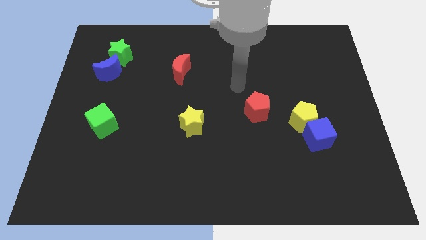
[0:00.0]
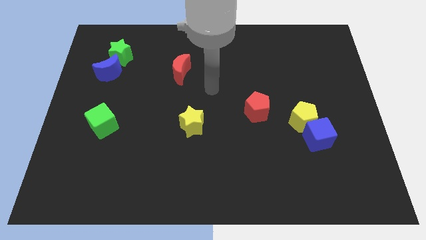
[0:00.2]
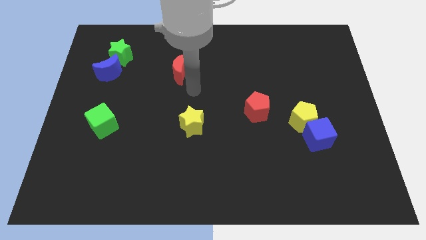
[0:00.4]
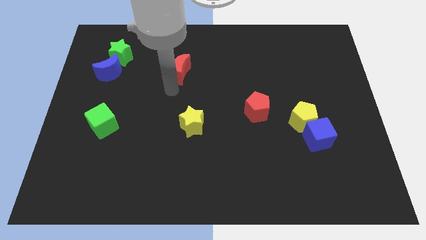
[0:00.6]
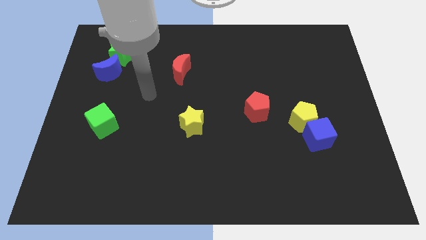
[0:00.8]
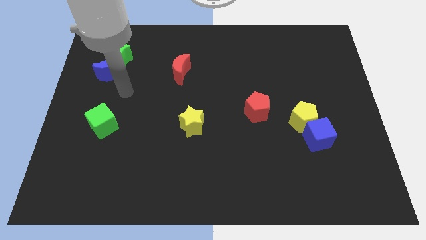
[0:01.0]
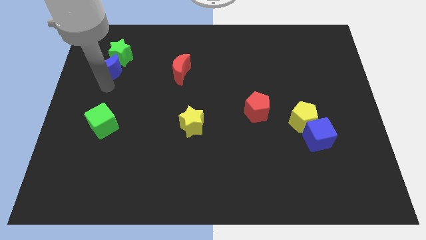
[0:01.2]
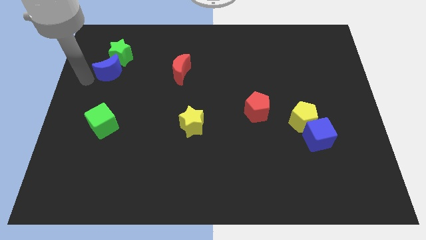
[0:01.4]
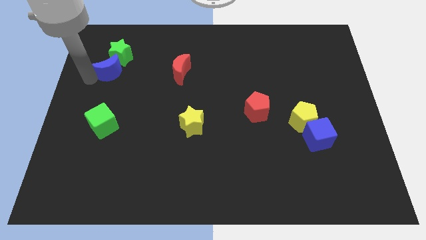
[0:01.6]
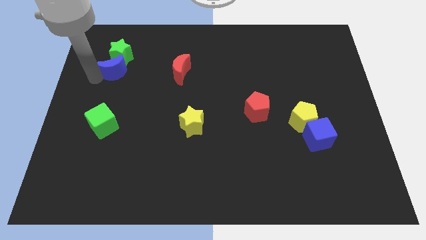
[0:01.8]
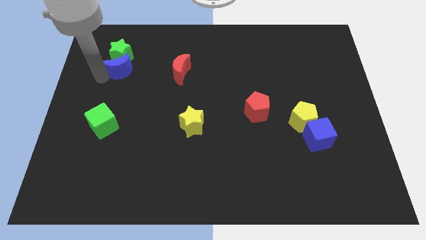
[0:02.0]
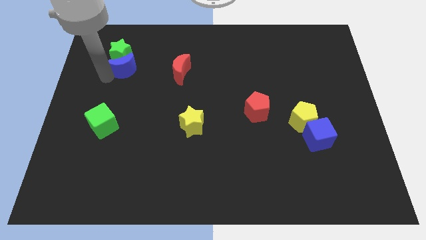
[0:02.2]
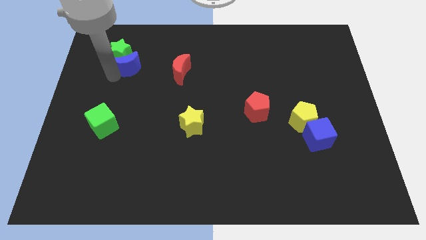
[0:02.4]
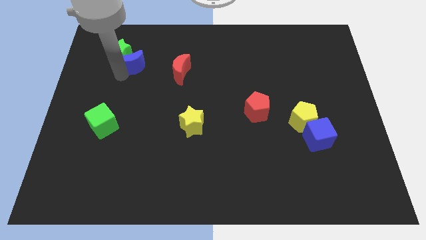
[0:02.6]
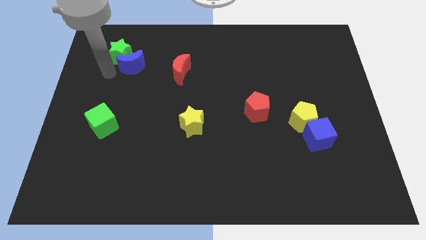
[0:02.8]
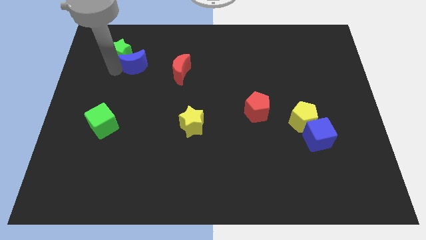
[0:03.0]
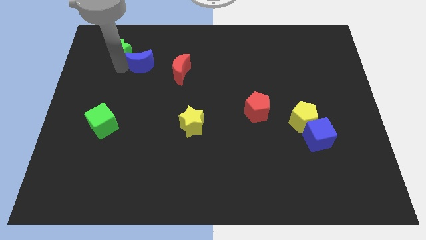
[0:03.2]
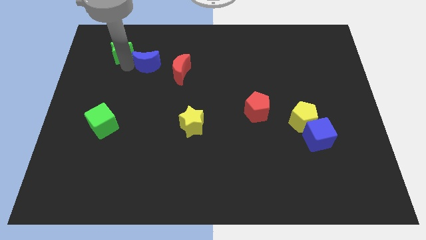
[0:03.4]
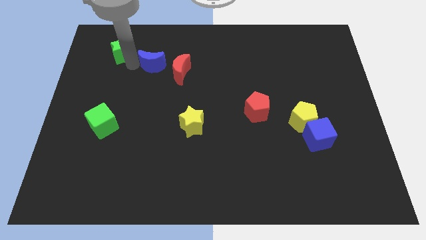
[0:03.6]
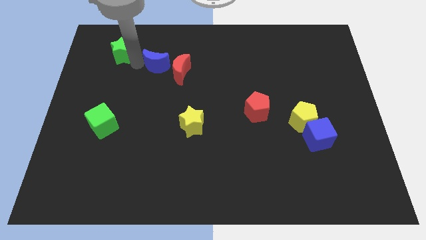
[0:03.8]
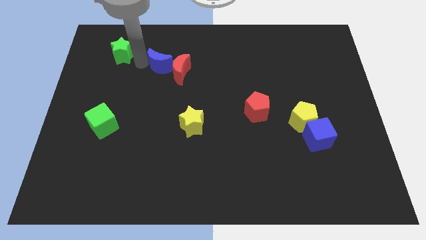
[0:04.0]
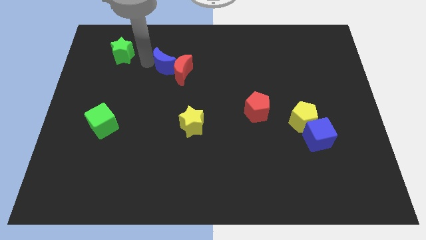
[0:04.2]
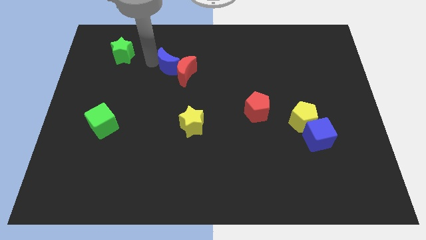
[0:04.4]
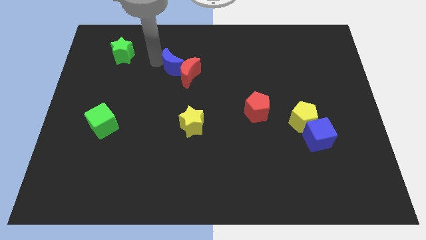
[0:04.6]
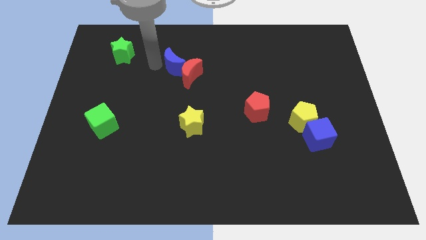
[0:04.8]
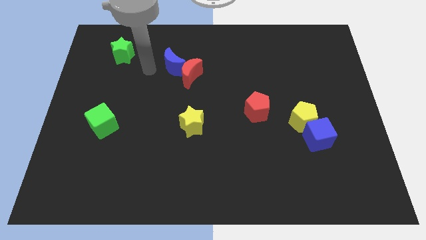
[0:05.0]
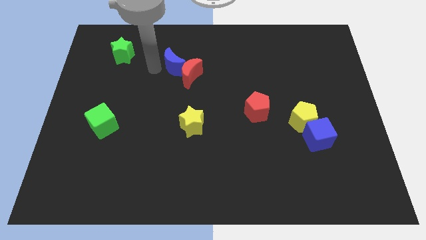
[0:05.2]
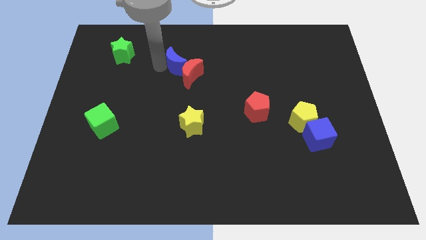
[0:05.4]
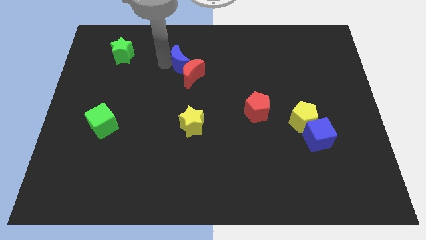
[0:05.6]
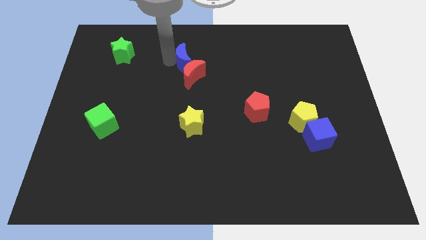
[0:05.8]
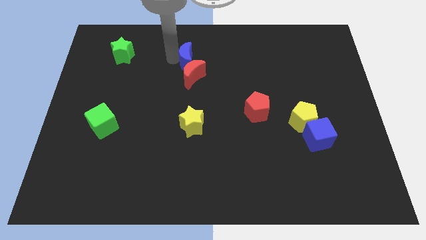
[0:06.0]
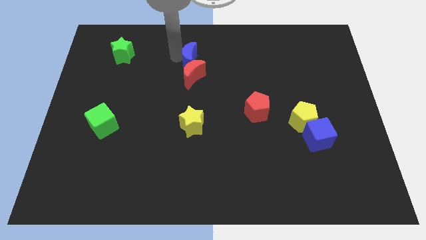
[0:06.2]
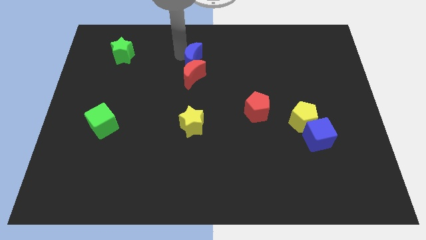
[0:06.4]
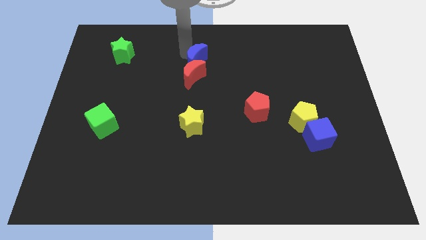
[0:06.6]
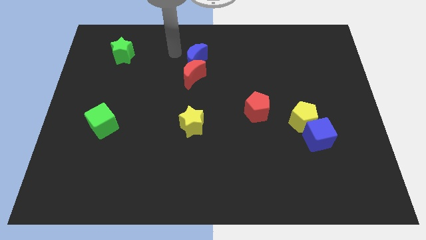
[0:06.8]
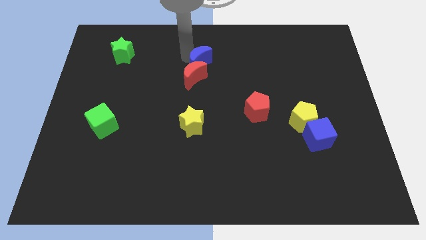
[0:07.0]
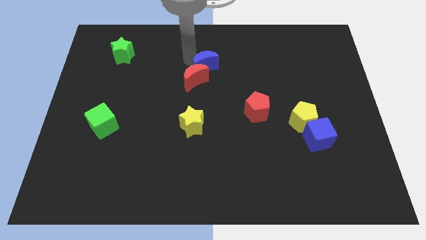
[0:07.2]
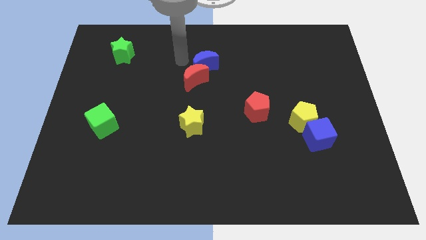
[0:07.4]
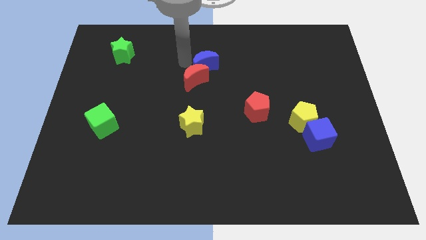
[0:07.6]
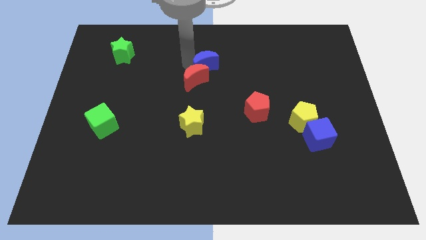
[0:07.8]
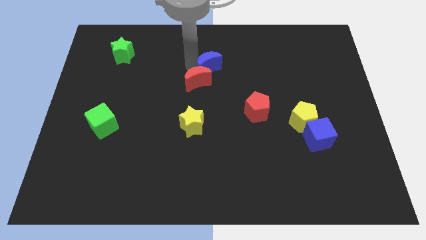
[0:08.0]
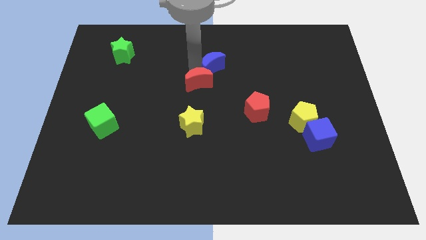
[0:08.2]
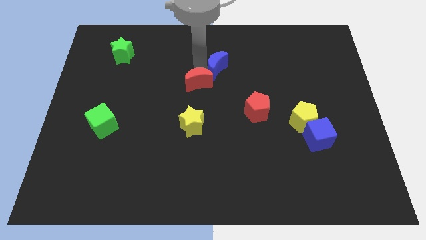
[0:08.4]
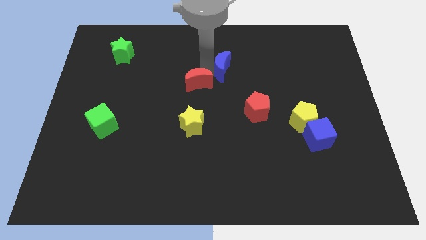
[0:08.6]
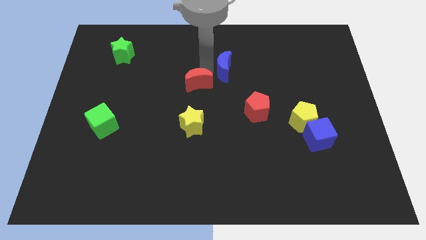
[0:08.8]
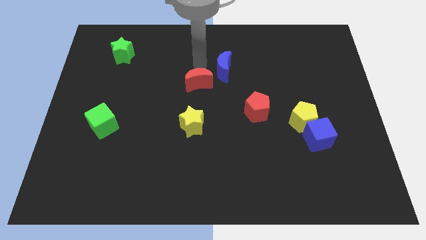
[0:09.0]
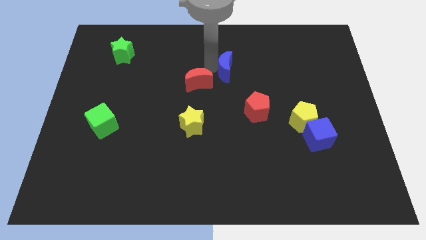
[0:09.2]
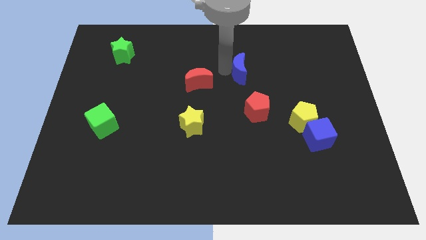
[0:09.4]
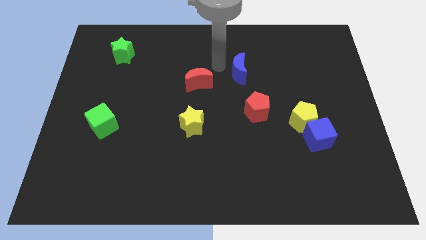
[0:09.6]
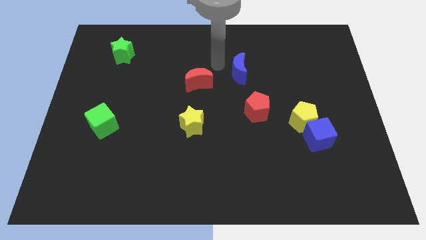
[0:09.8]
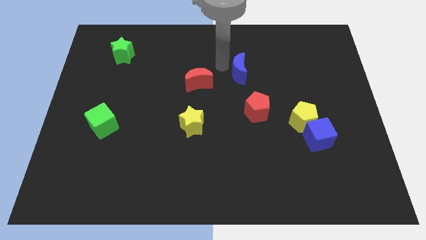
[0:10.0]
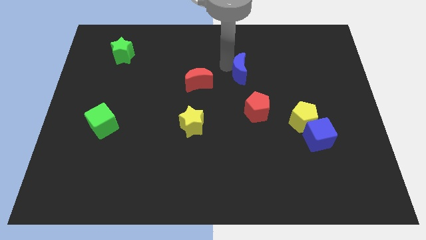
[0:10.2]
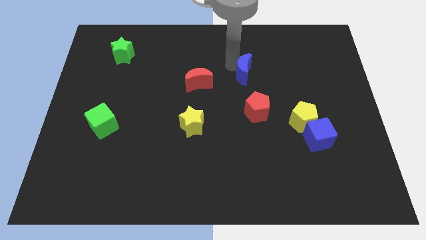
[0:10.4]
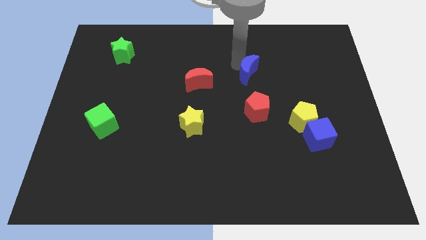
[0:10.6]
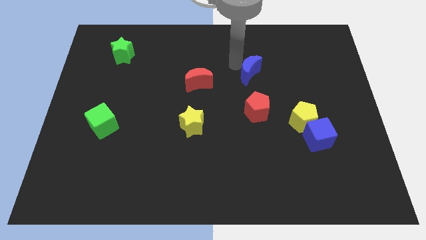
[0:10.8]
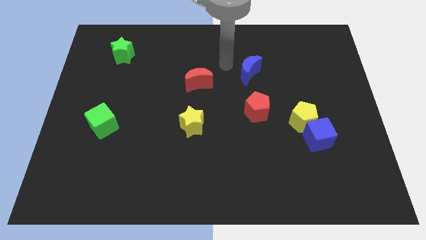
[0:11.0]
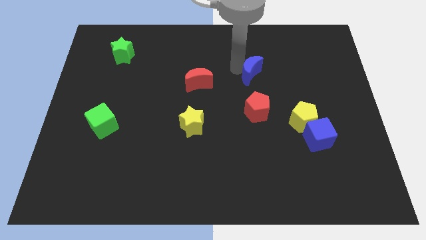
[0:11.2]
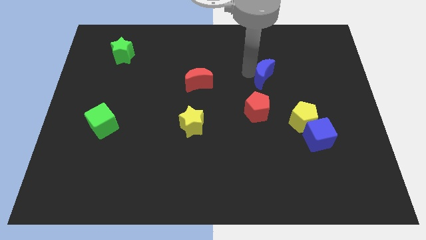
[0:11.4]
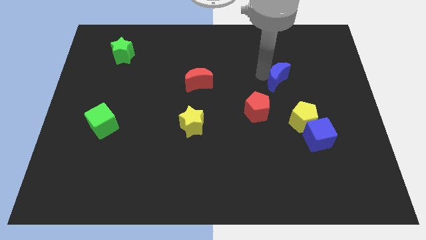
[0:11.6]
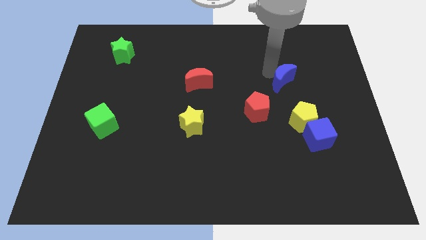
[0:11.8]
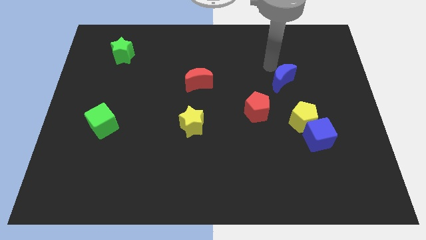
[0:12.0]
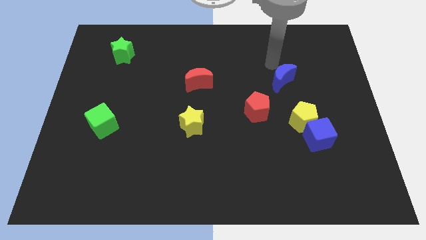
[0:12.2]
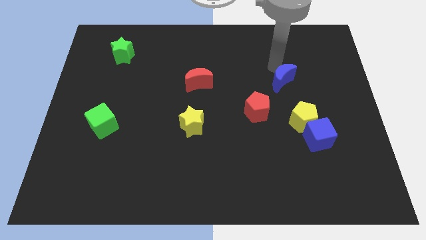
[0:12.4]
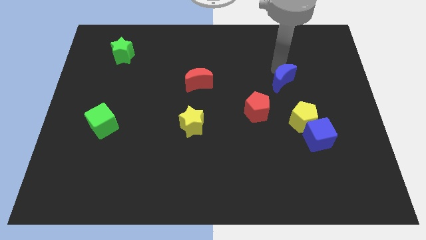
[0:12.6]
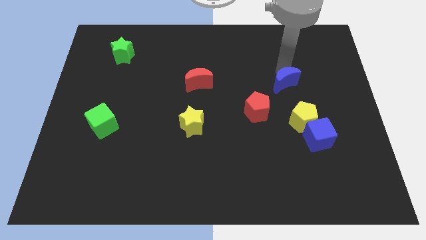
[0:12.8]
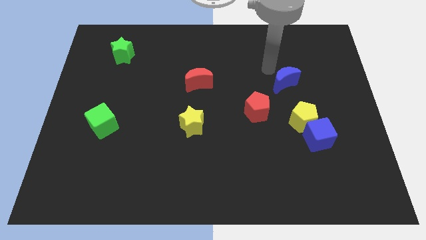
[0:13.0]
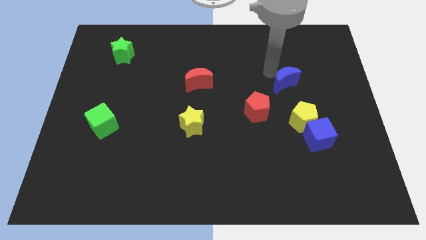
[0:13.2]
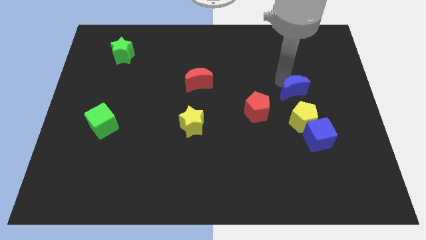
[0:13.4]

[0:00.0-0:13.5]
put the blue moon above the blue cube

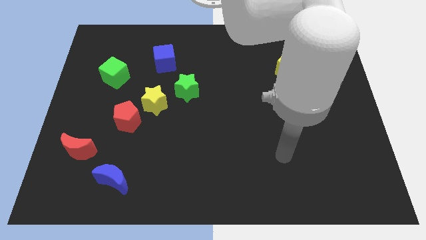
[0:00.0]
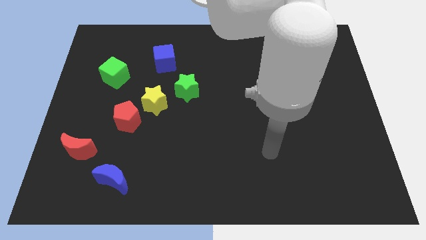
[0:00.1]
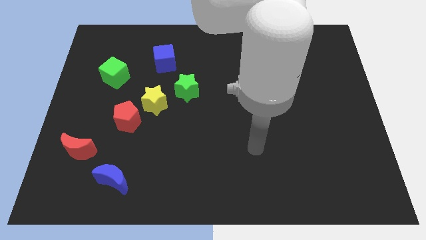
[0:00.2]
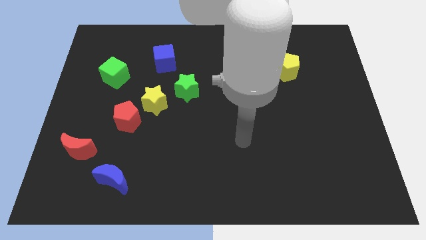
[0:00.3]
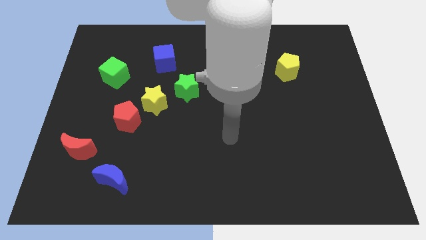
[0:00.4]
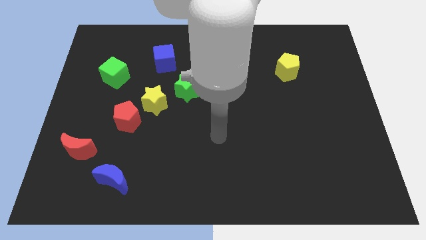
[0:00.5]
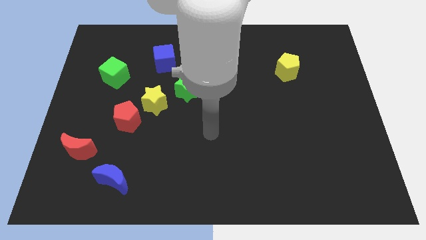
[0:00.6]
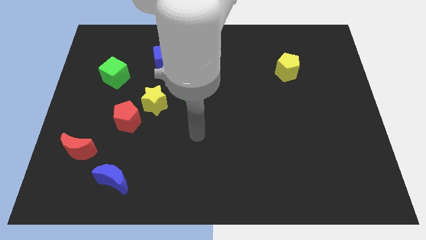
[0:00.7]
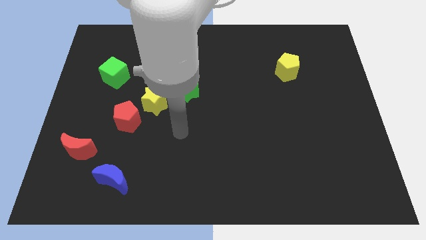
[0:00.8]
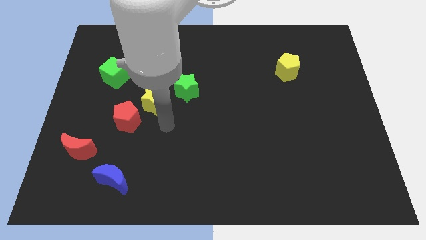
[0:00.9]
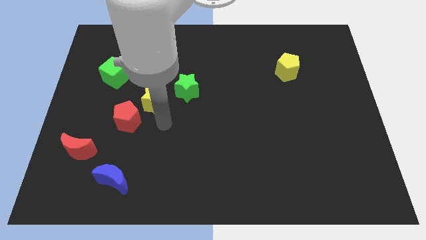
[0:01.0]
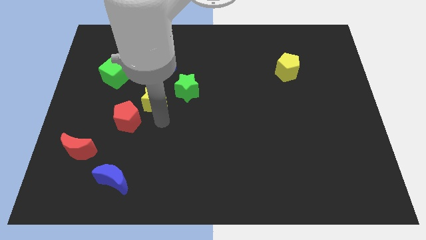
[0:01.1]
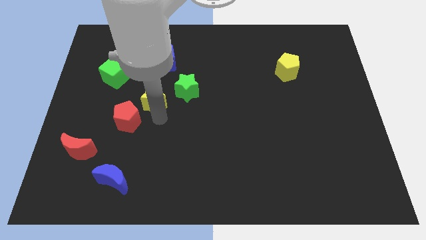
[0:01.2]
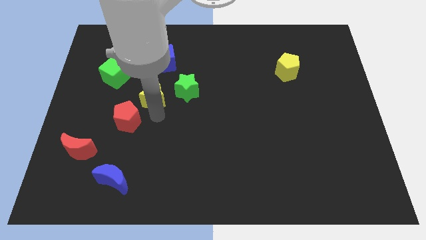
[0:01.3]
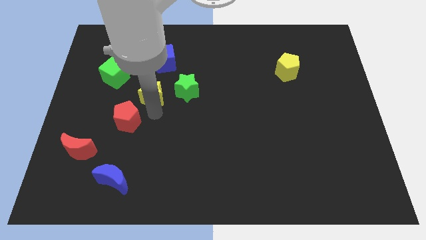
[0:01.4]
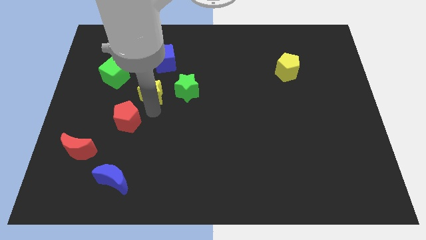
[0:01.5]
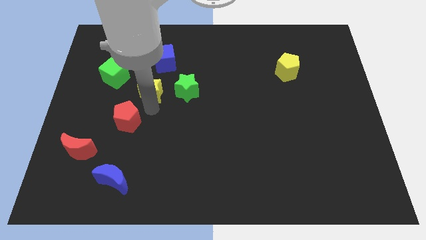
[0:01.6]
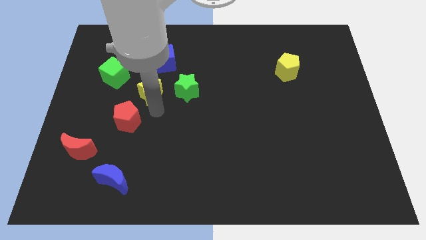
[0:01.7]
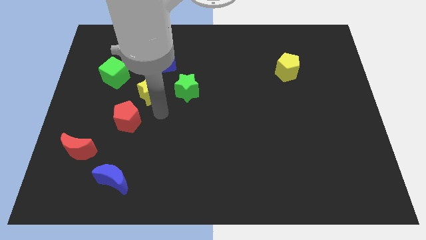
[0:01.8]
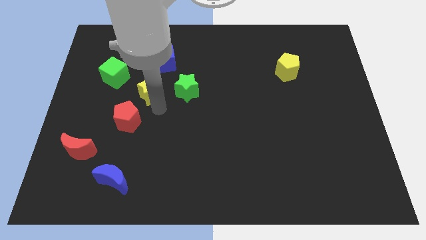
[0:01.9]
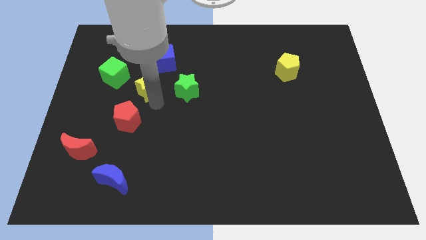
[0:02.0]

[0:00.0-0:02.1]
move the yellow star to the bottom left of the blue cube
